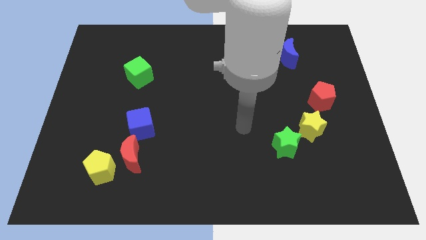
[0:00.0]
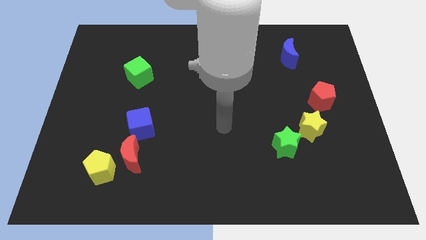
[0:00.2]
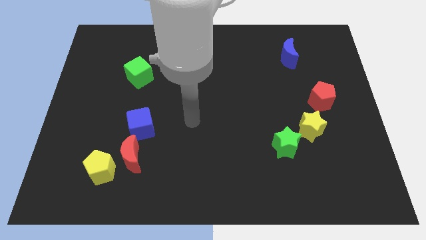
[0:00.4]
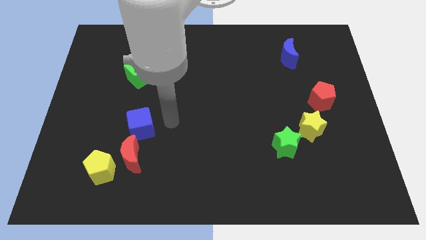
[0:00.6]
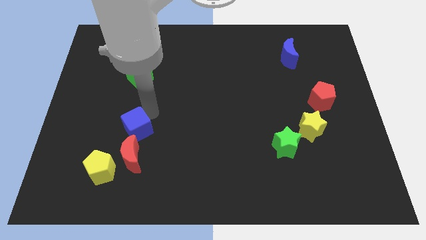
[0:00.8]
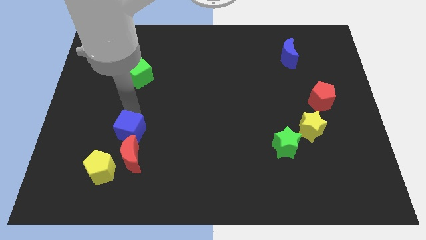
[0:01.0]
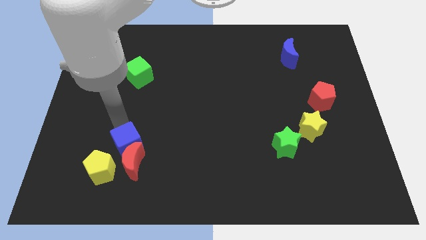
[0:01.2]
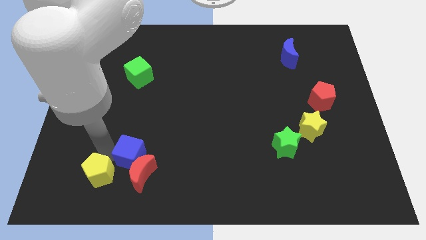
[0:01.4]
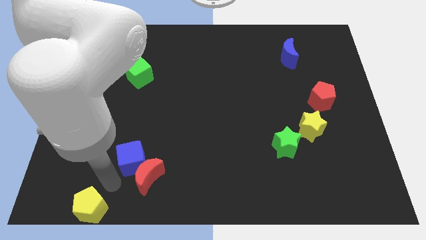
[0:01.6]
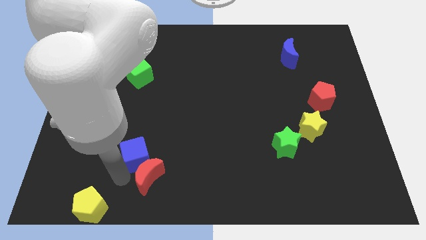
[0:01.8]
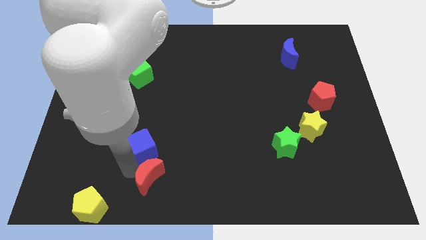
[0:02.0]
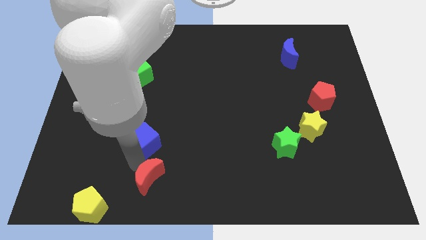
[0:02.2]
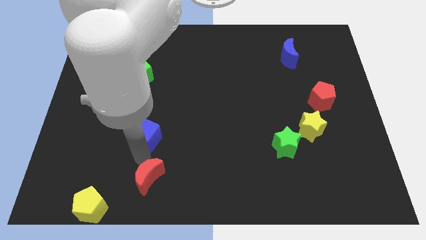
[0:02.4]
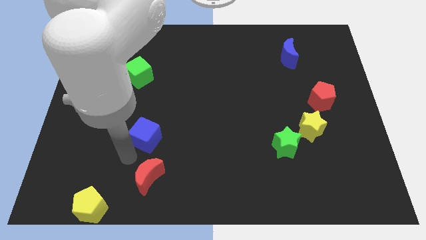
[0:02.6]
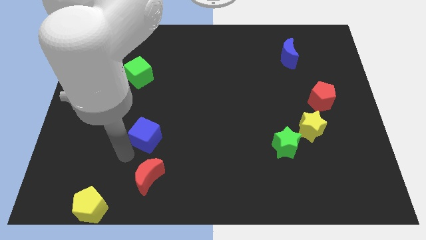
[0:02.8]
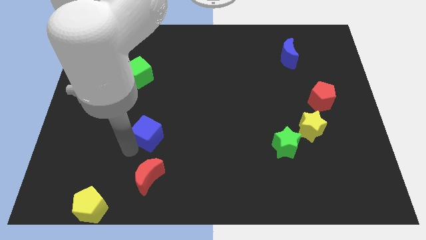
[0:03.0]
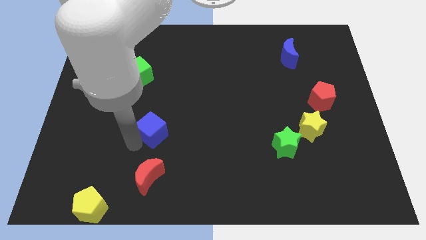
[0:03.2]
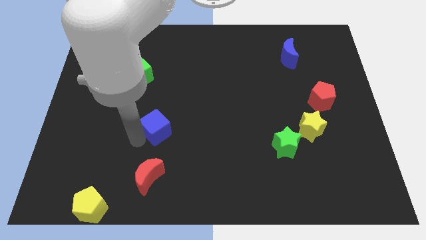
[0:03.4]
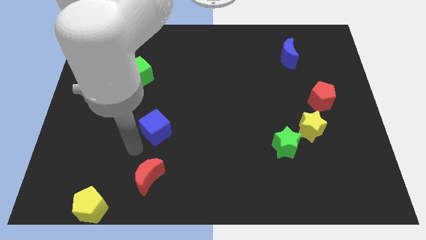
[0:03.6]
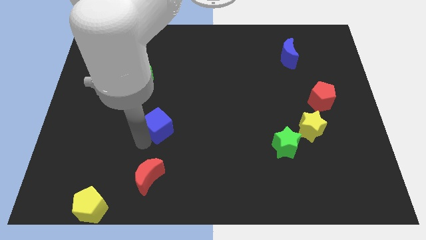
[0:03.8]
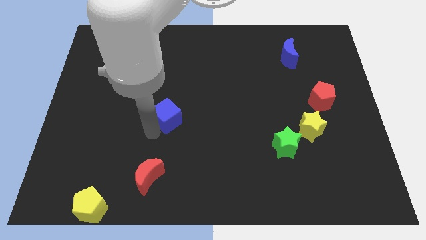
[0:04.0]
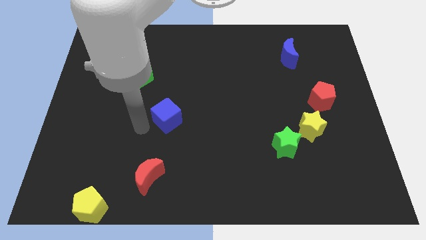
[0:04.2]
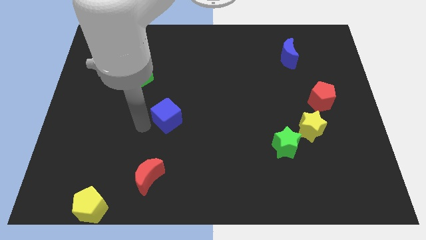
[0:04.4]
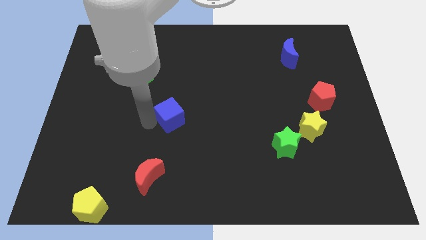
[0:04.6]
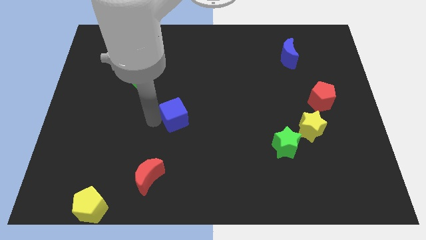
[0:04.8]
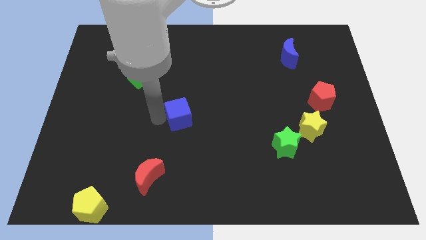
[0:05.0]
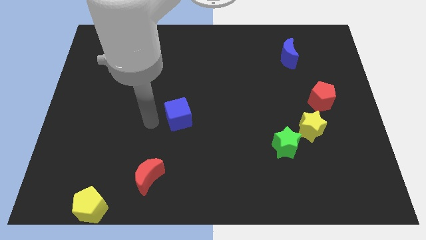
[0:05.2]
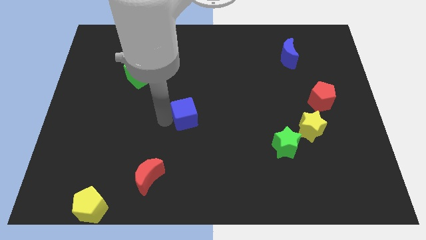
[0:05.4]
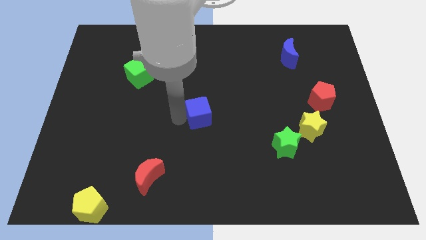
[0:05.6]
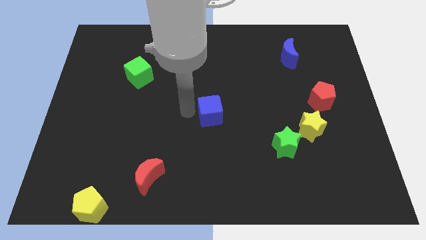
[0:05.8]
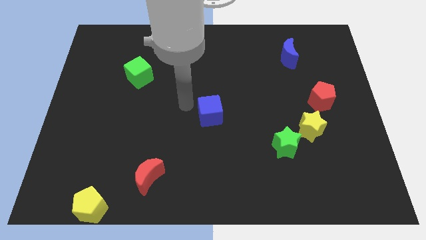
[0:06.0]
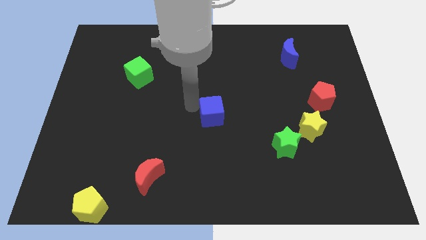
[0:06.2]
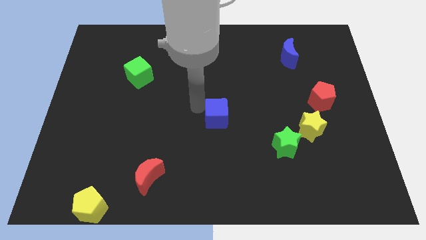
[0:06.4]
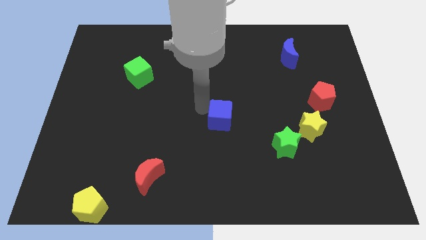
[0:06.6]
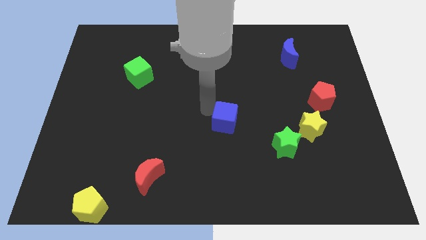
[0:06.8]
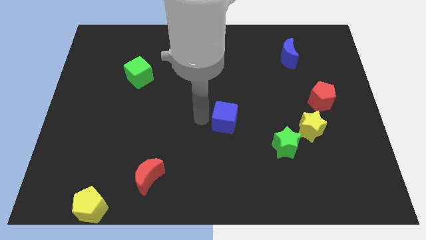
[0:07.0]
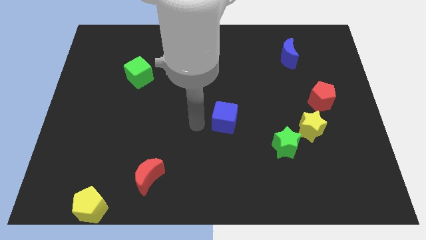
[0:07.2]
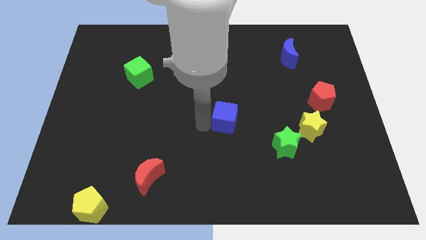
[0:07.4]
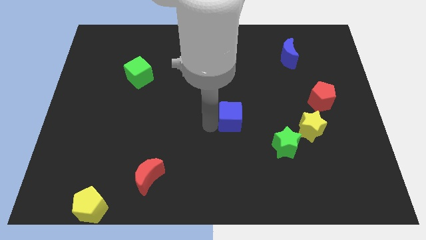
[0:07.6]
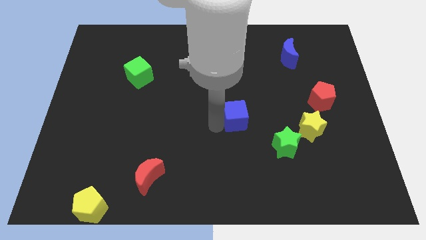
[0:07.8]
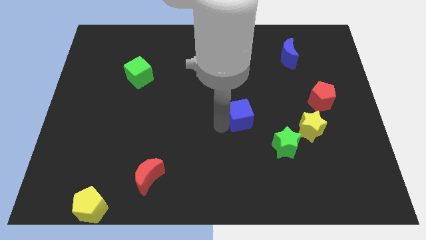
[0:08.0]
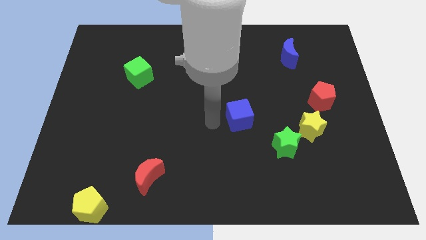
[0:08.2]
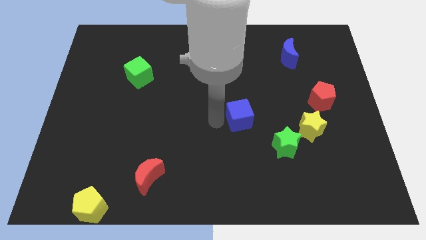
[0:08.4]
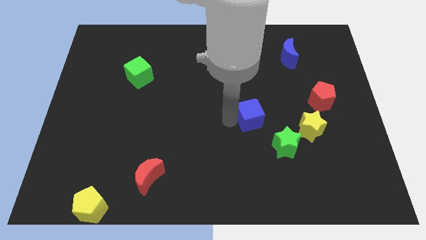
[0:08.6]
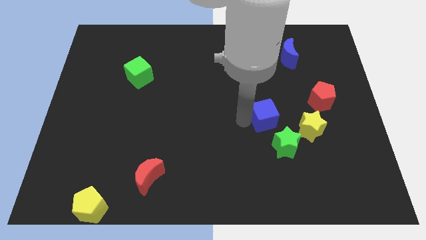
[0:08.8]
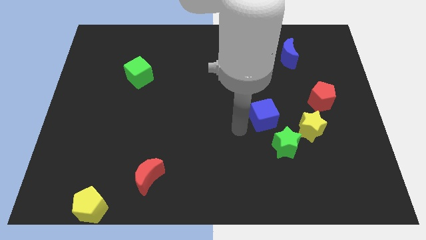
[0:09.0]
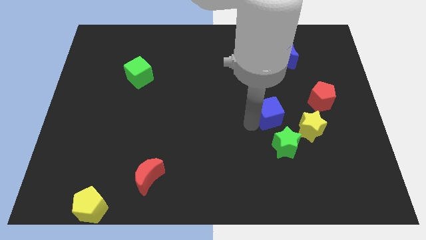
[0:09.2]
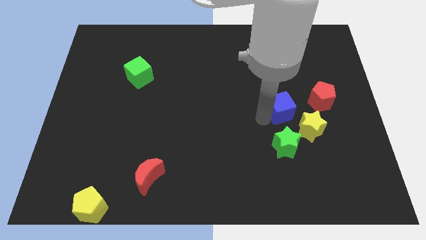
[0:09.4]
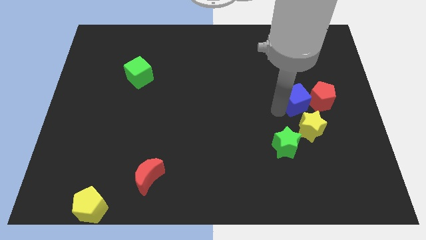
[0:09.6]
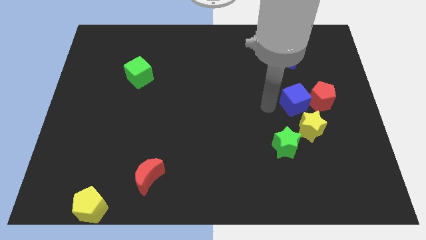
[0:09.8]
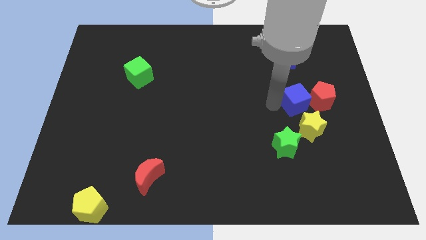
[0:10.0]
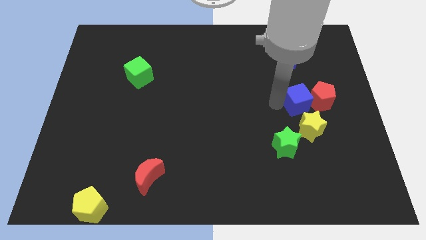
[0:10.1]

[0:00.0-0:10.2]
slide the blue cube to the red pentagon

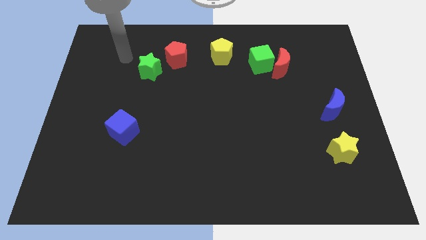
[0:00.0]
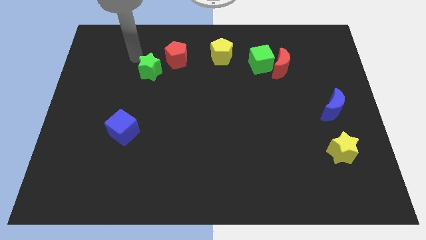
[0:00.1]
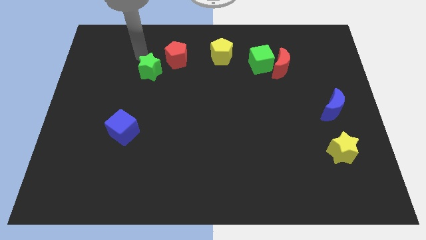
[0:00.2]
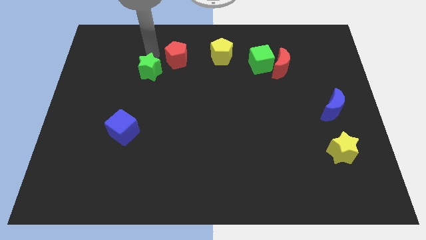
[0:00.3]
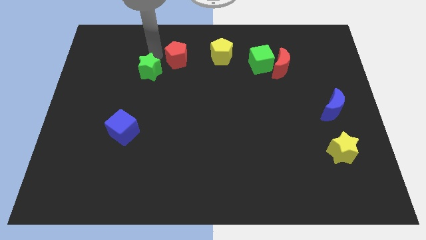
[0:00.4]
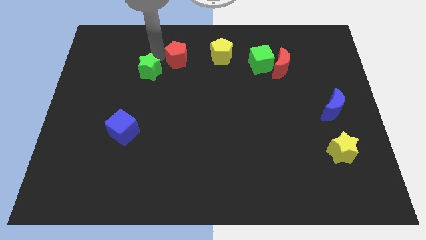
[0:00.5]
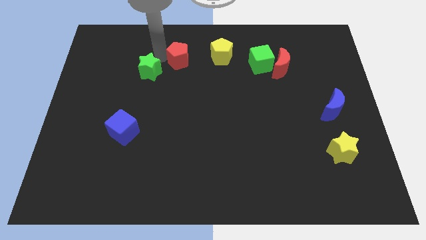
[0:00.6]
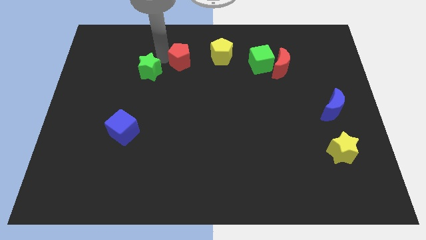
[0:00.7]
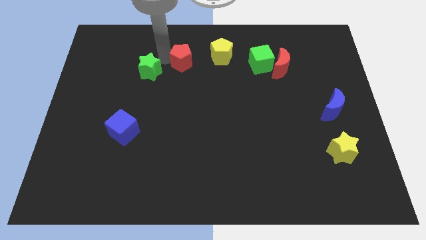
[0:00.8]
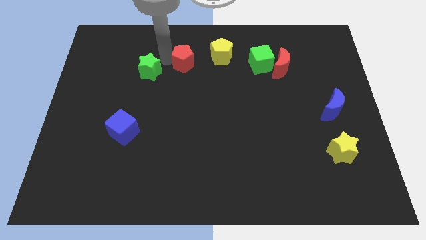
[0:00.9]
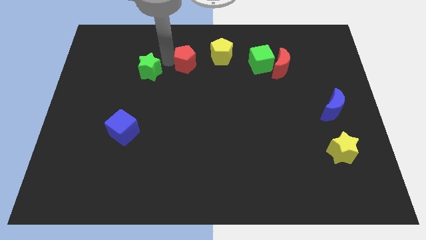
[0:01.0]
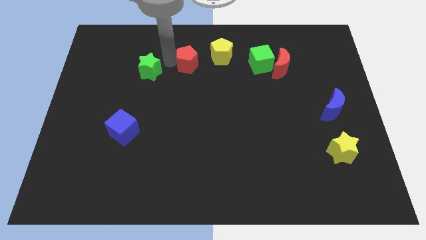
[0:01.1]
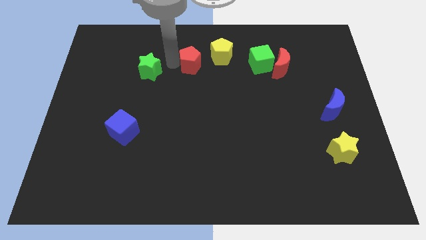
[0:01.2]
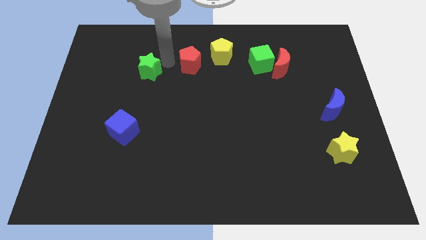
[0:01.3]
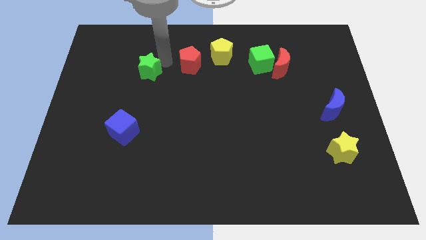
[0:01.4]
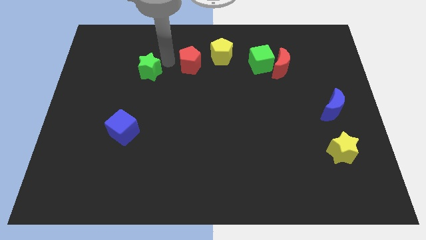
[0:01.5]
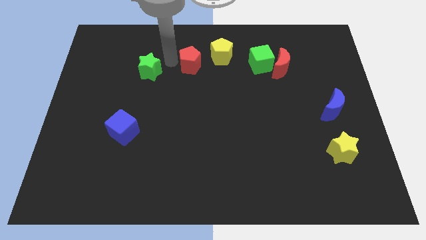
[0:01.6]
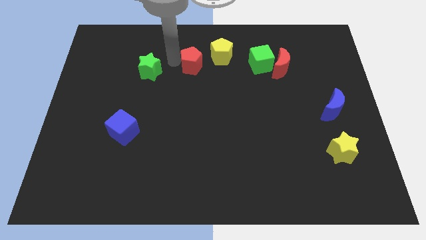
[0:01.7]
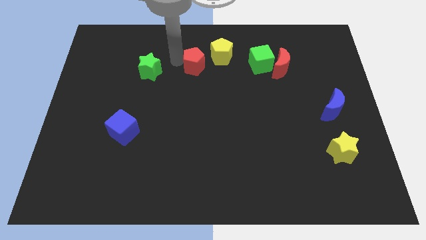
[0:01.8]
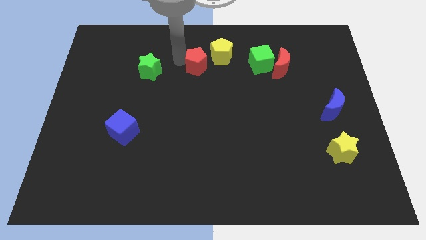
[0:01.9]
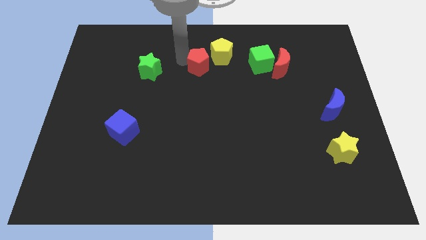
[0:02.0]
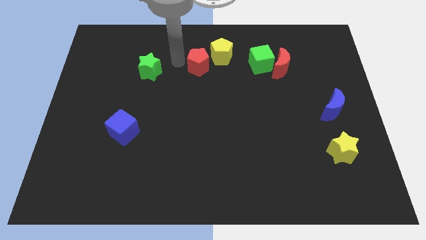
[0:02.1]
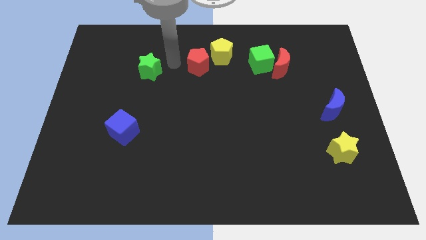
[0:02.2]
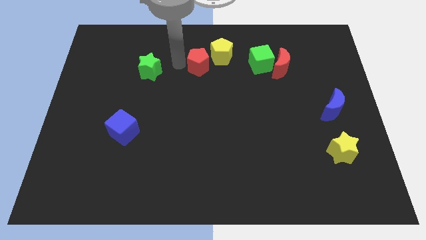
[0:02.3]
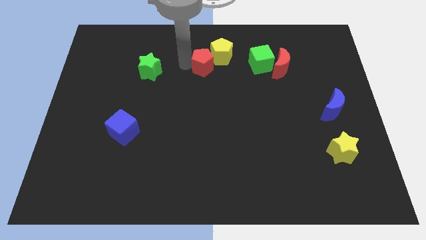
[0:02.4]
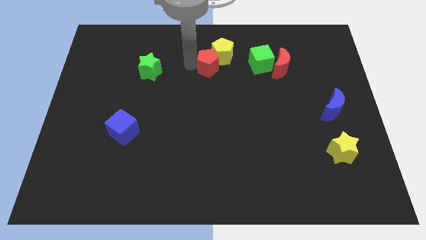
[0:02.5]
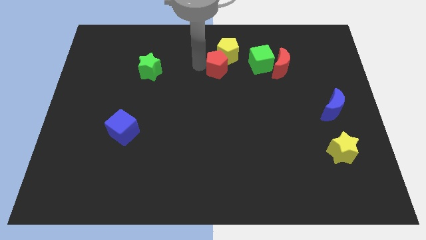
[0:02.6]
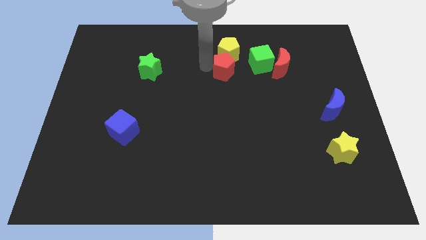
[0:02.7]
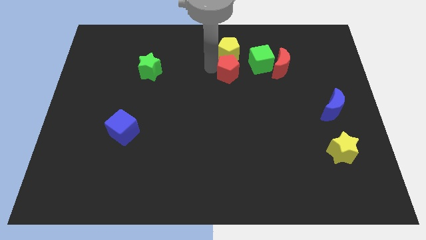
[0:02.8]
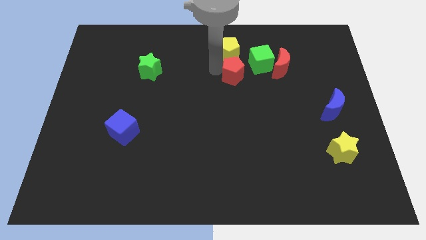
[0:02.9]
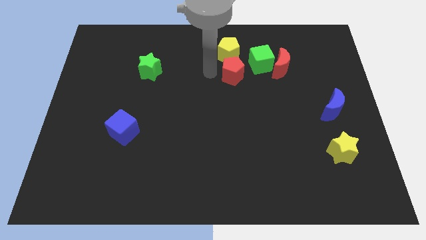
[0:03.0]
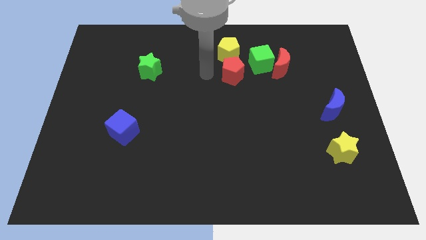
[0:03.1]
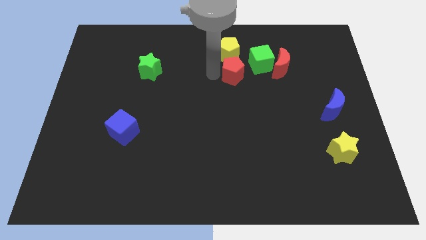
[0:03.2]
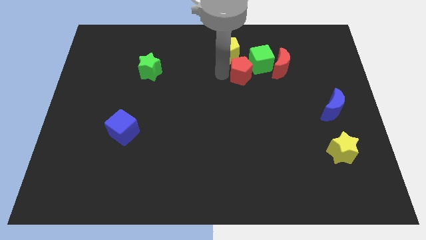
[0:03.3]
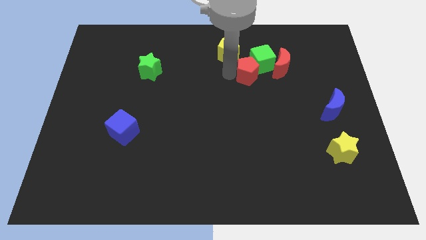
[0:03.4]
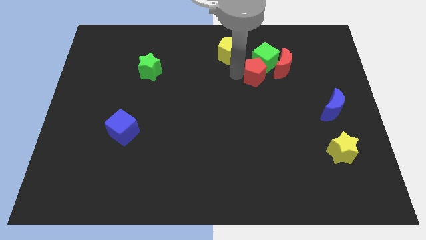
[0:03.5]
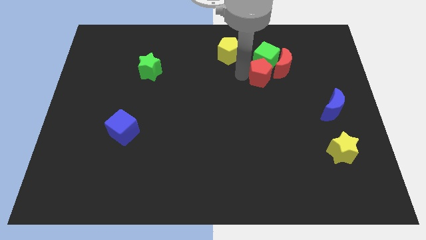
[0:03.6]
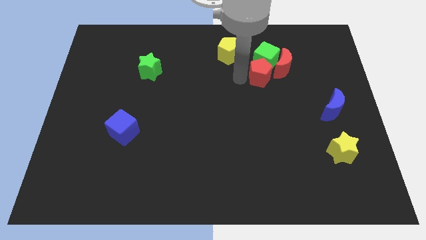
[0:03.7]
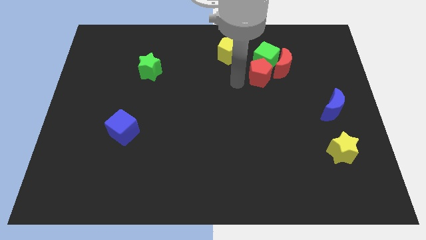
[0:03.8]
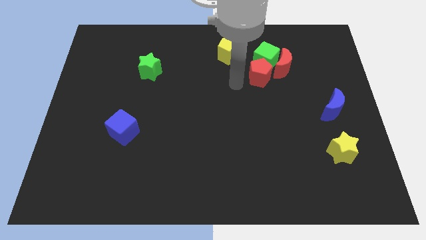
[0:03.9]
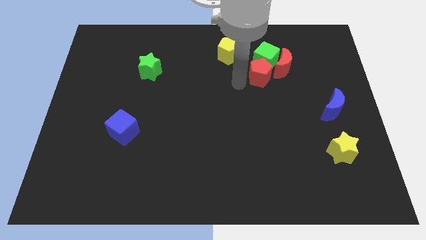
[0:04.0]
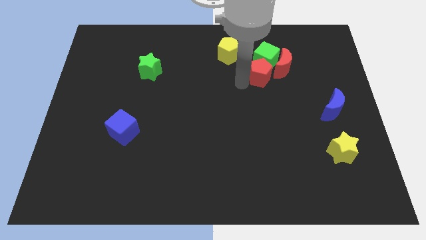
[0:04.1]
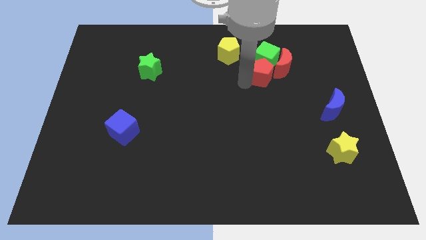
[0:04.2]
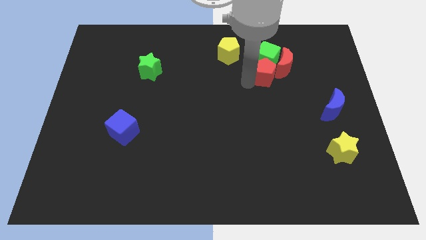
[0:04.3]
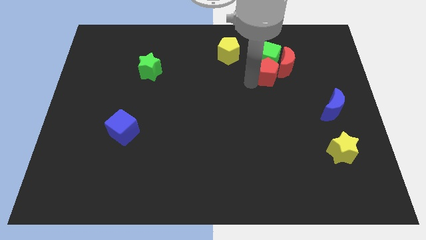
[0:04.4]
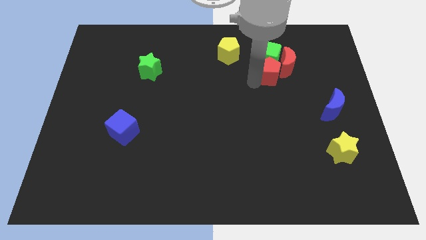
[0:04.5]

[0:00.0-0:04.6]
push the red pentagon towards the red moon
